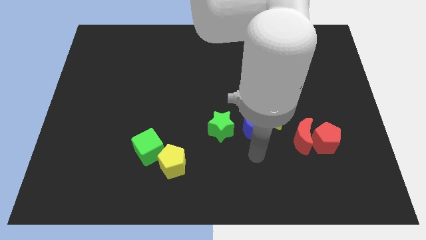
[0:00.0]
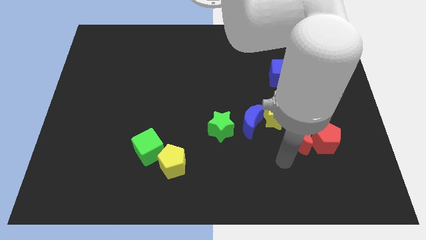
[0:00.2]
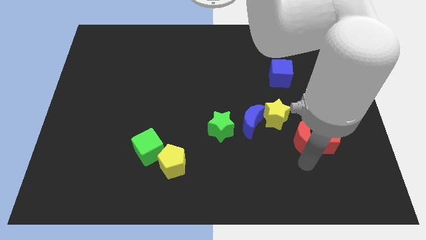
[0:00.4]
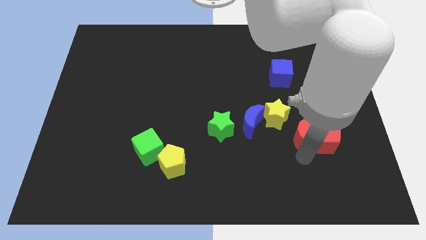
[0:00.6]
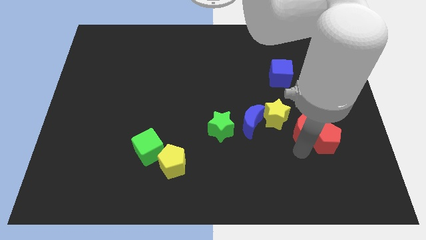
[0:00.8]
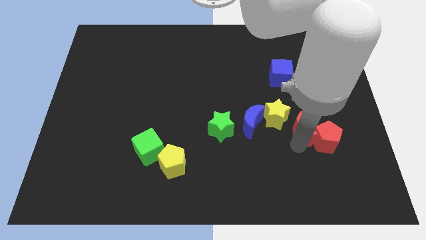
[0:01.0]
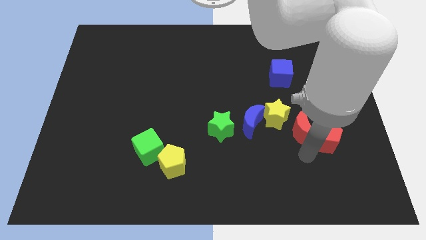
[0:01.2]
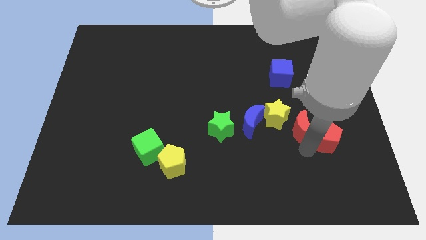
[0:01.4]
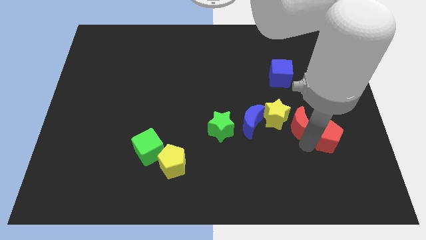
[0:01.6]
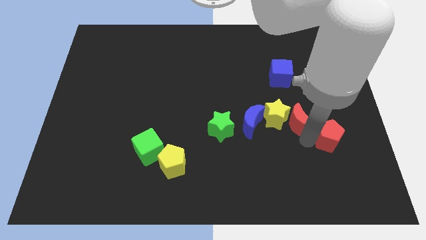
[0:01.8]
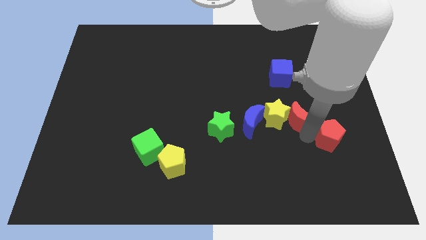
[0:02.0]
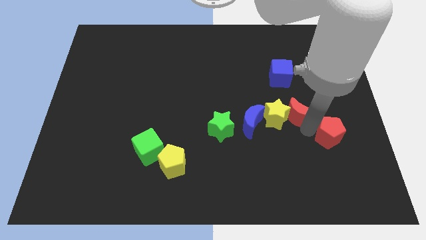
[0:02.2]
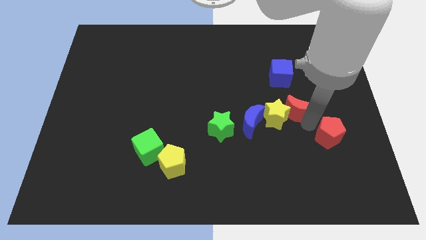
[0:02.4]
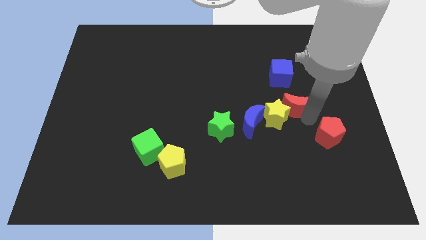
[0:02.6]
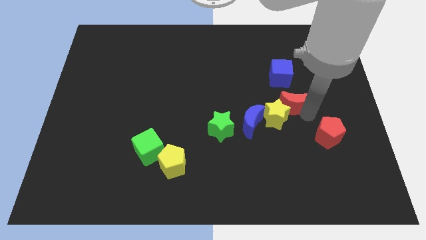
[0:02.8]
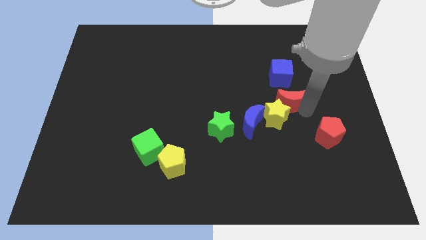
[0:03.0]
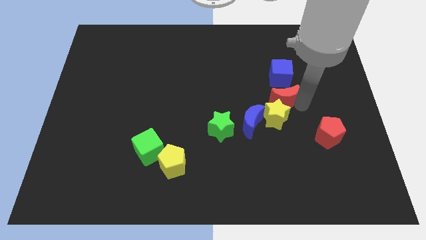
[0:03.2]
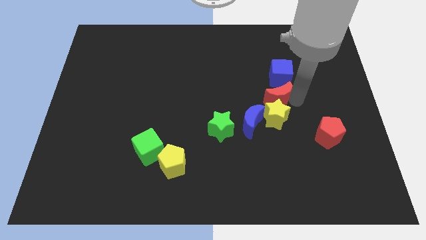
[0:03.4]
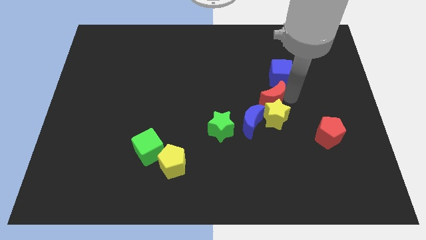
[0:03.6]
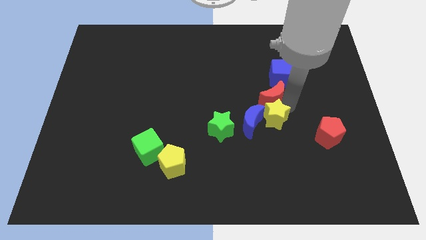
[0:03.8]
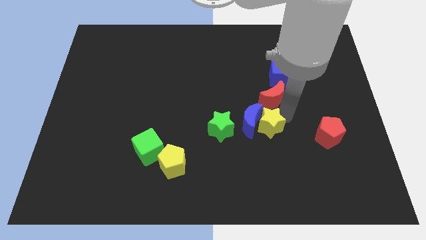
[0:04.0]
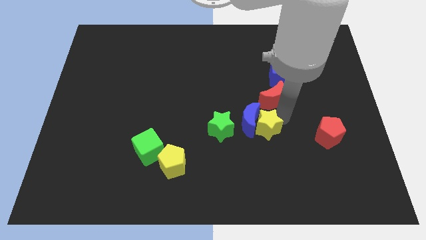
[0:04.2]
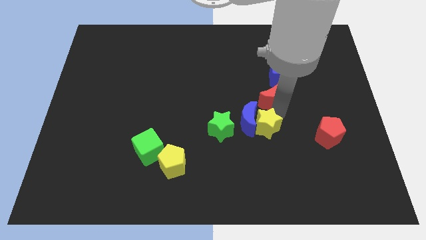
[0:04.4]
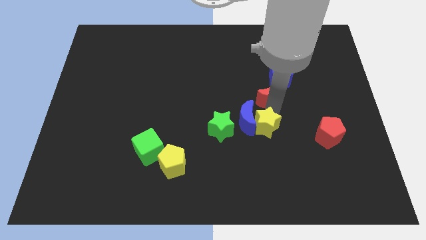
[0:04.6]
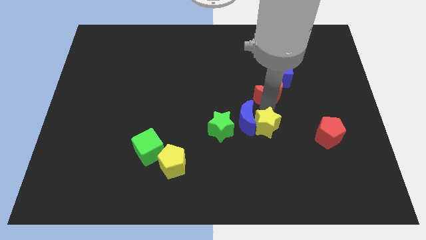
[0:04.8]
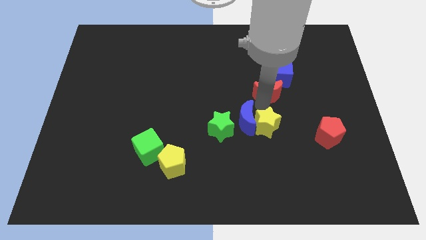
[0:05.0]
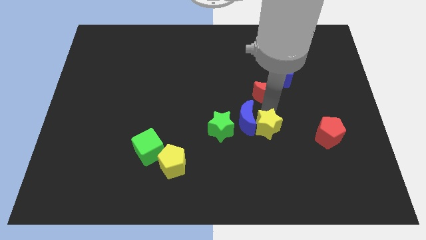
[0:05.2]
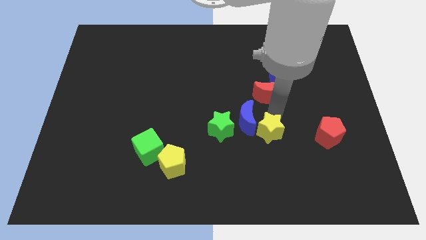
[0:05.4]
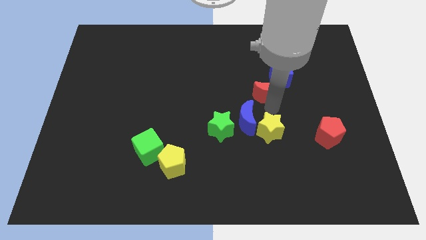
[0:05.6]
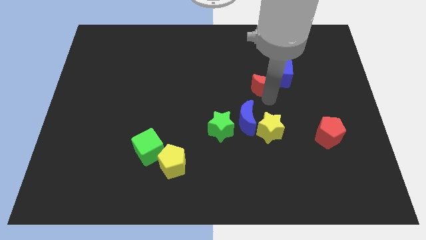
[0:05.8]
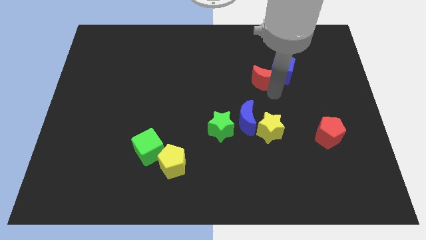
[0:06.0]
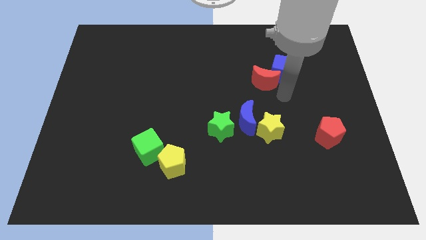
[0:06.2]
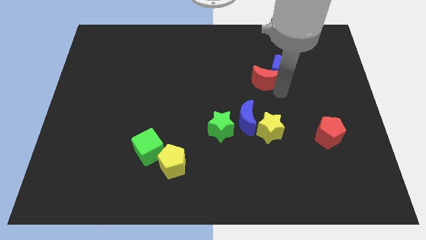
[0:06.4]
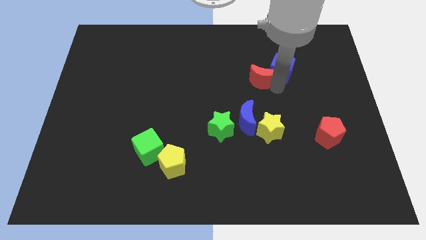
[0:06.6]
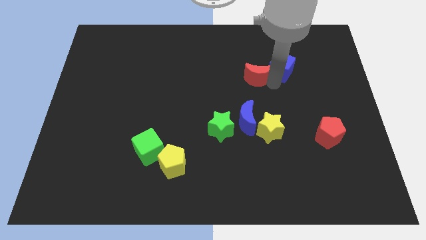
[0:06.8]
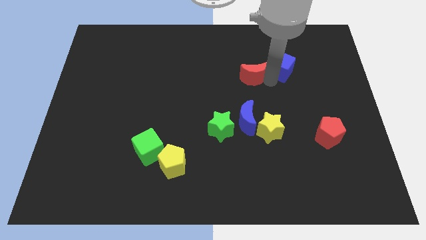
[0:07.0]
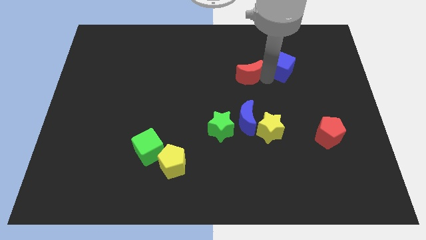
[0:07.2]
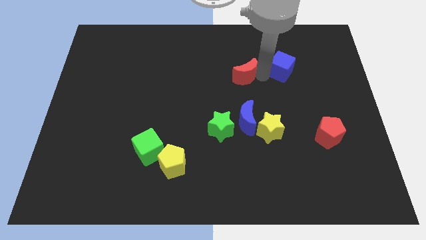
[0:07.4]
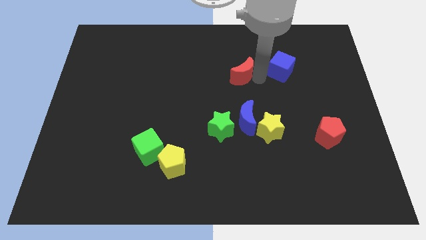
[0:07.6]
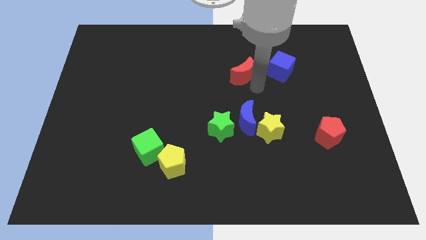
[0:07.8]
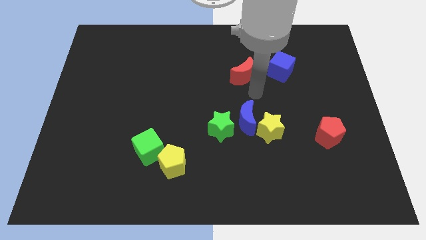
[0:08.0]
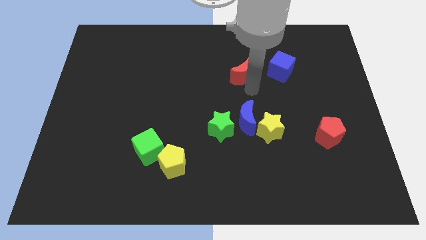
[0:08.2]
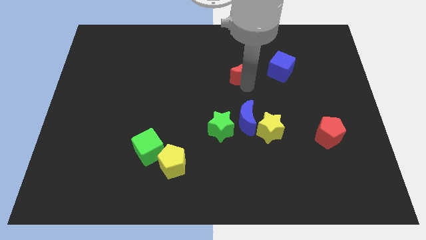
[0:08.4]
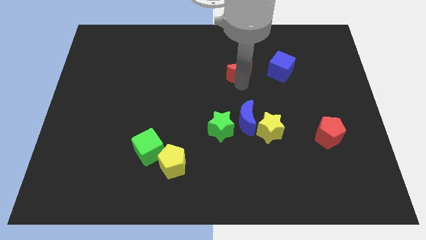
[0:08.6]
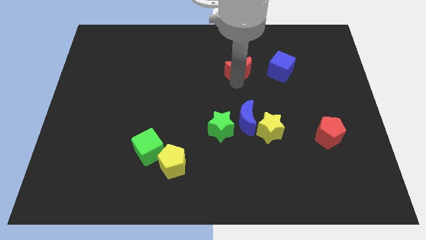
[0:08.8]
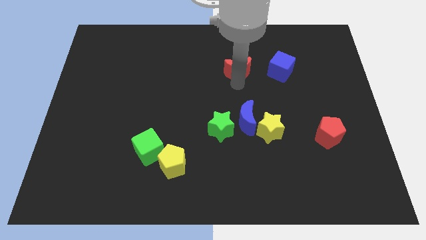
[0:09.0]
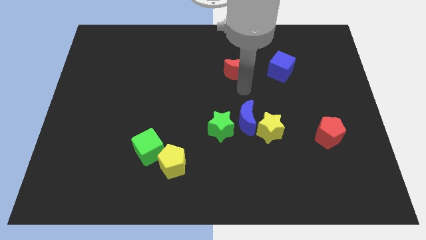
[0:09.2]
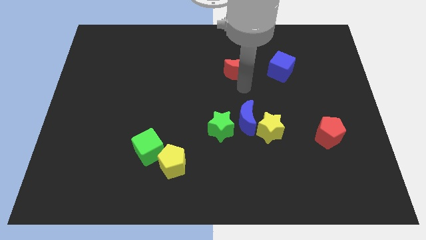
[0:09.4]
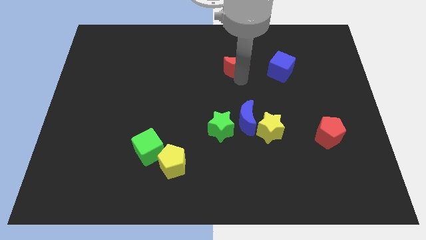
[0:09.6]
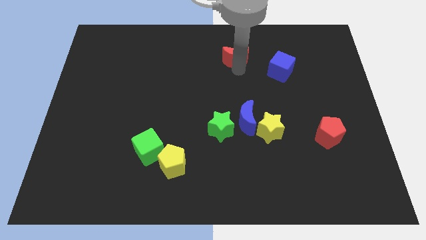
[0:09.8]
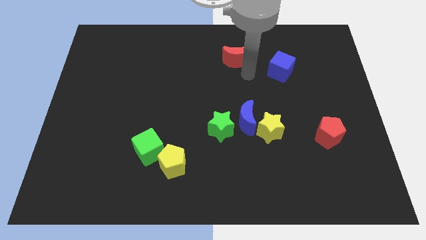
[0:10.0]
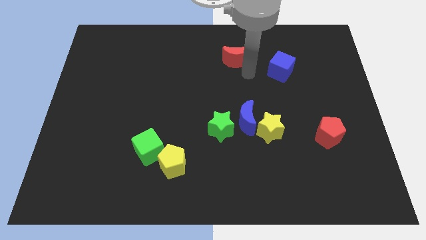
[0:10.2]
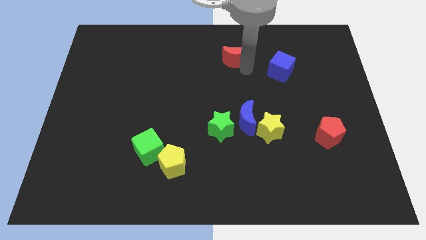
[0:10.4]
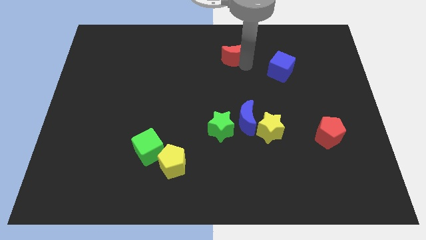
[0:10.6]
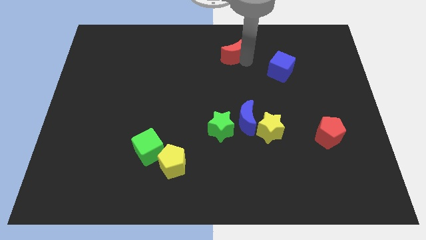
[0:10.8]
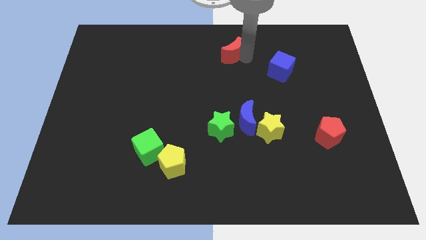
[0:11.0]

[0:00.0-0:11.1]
slide the red moon to the top

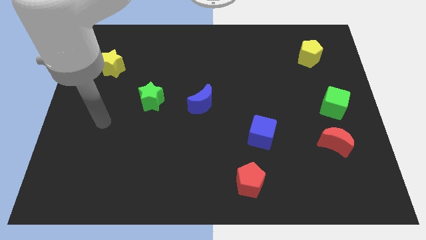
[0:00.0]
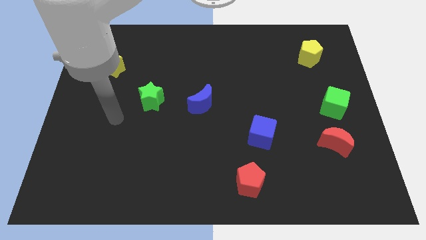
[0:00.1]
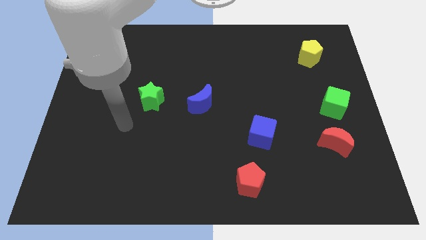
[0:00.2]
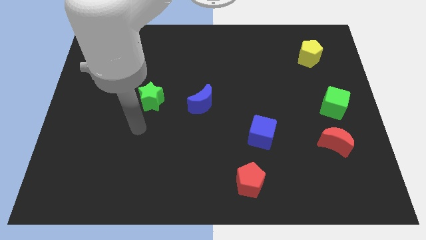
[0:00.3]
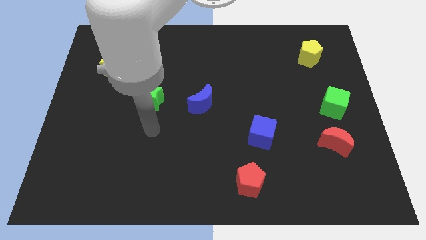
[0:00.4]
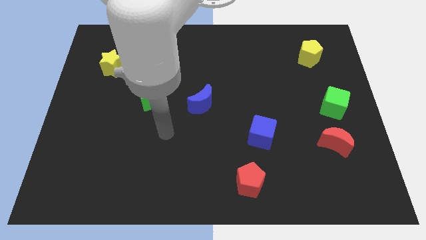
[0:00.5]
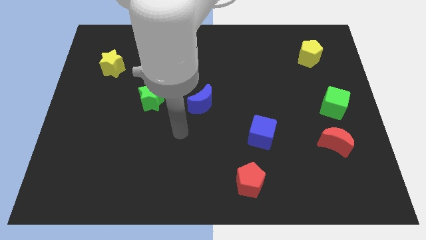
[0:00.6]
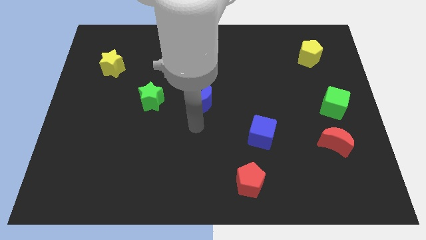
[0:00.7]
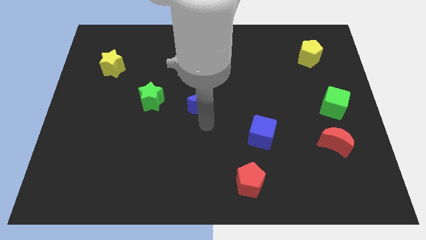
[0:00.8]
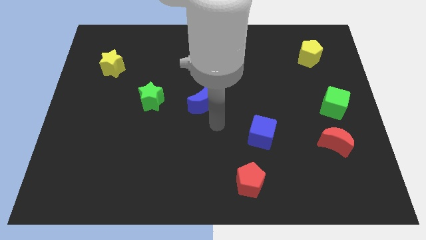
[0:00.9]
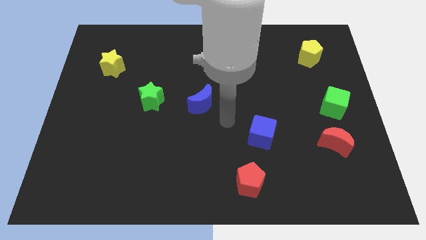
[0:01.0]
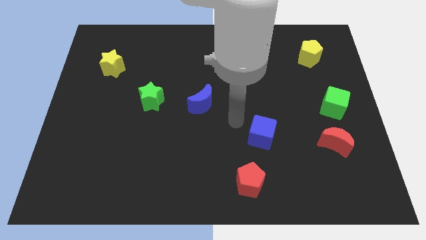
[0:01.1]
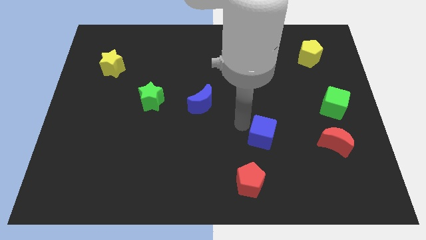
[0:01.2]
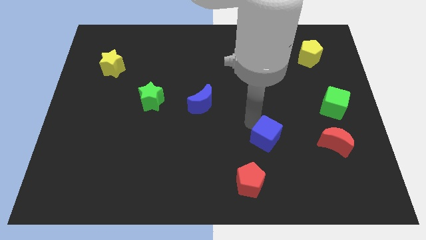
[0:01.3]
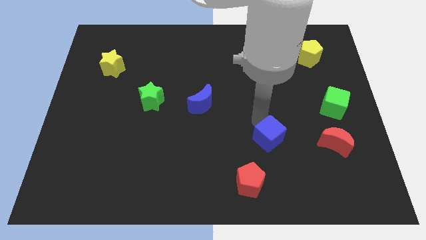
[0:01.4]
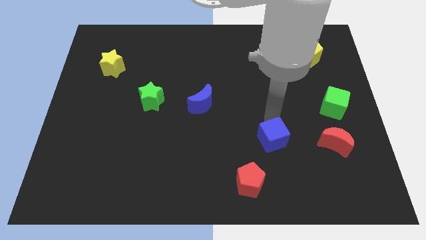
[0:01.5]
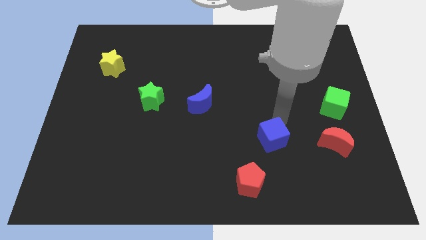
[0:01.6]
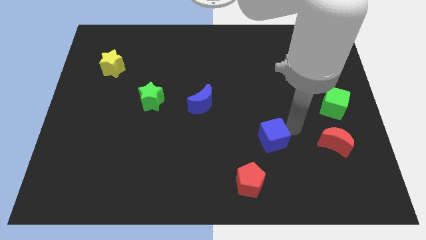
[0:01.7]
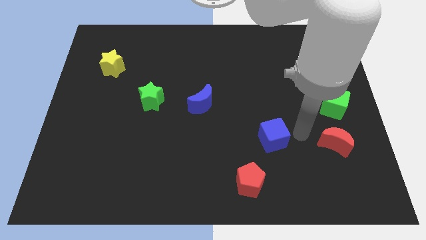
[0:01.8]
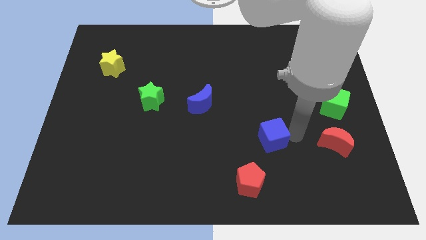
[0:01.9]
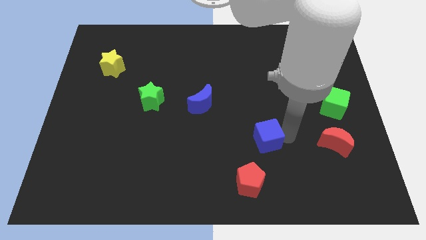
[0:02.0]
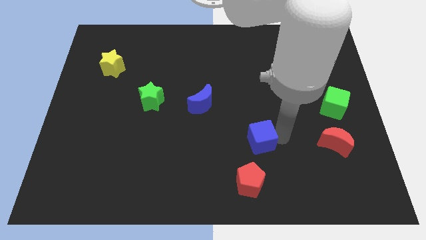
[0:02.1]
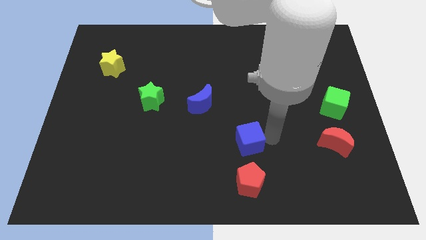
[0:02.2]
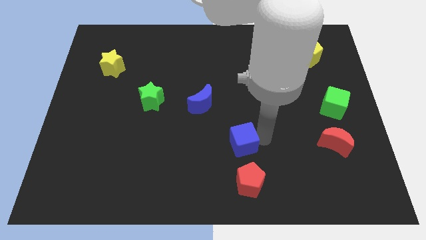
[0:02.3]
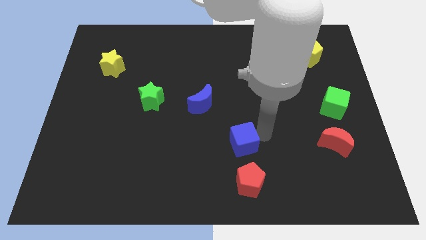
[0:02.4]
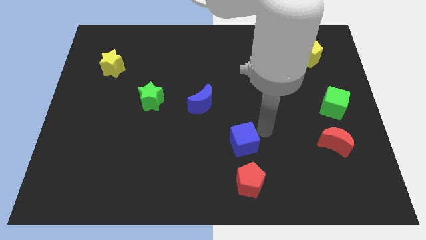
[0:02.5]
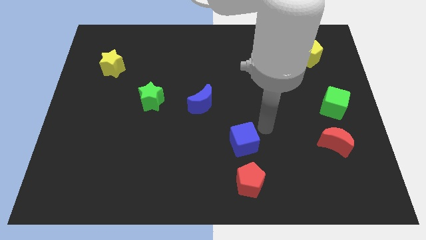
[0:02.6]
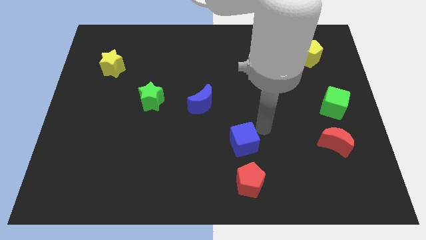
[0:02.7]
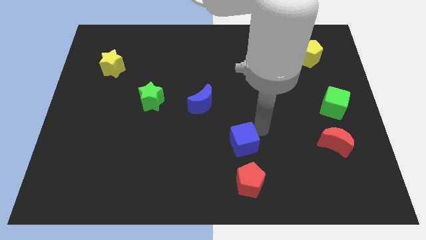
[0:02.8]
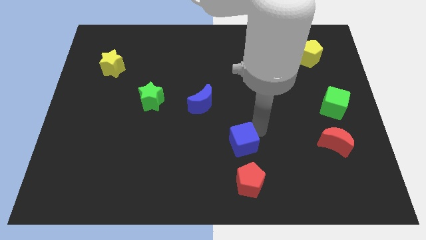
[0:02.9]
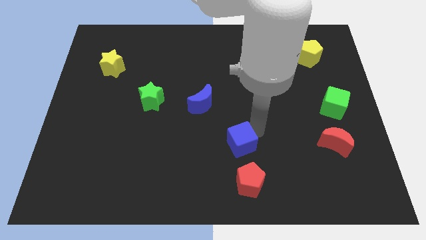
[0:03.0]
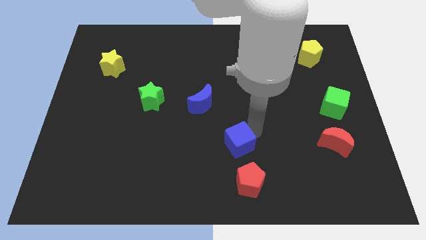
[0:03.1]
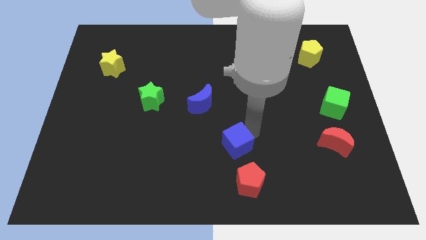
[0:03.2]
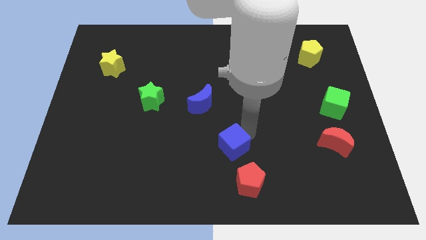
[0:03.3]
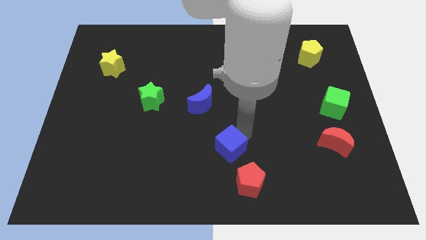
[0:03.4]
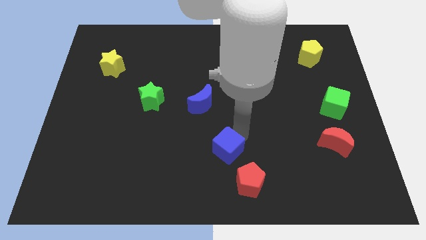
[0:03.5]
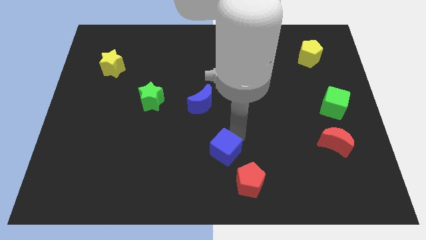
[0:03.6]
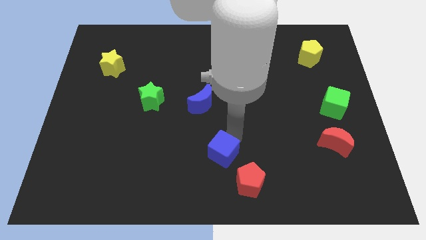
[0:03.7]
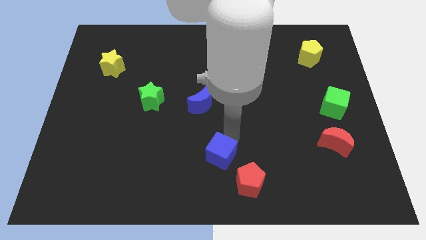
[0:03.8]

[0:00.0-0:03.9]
move the blue cube to the bottom side
